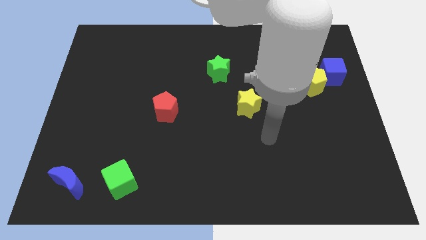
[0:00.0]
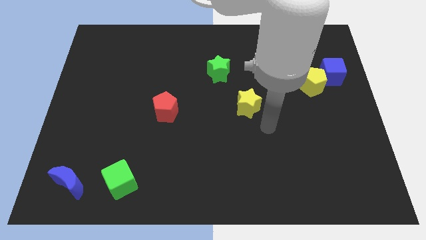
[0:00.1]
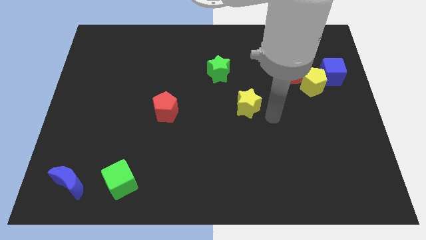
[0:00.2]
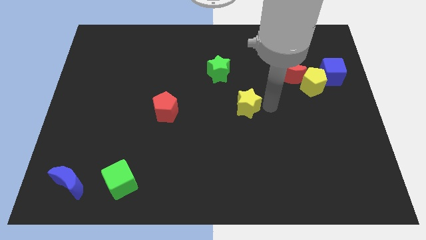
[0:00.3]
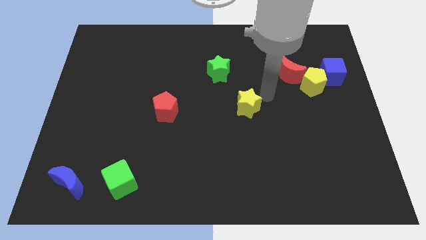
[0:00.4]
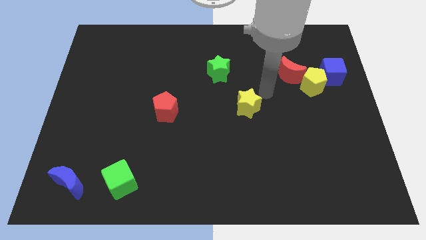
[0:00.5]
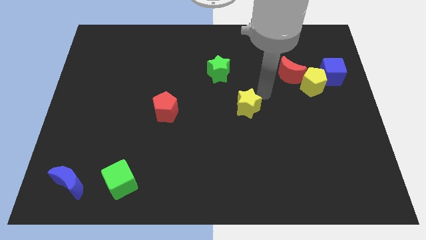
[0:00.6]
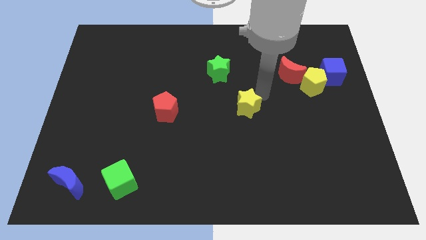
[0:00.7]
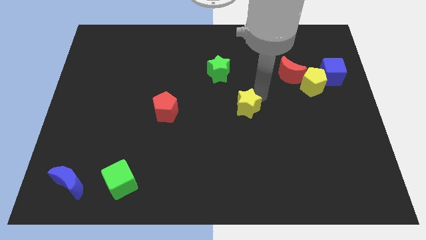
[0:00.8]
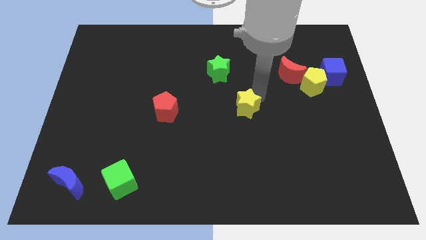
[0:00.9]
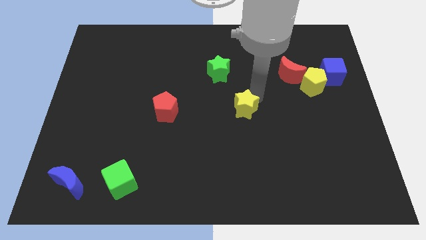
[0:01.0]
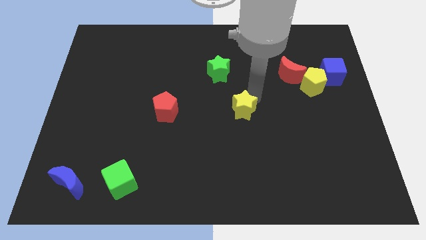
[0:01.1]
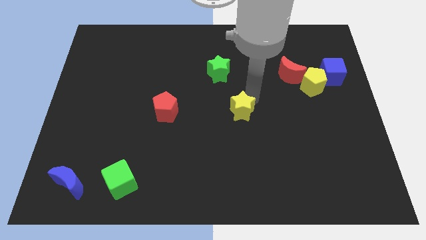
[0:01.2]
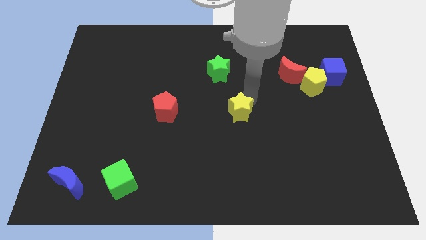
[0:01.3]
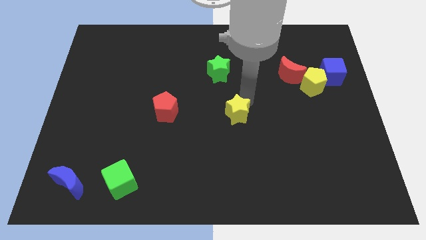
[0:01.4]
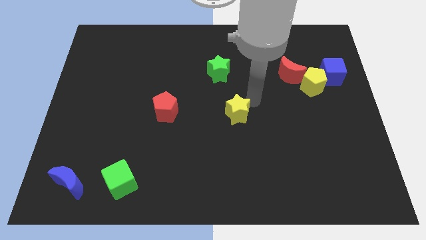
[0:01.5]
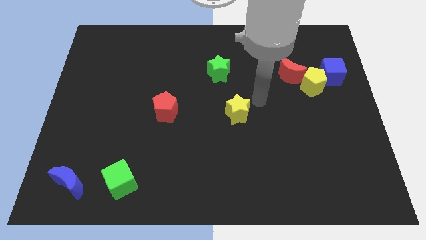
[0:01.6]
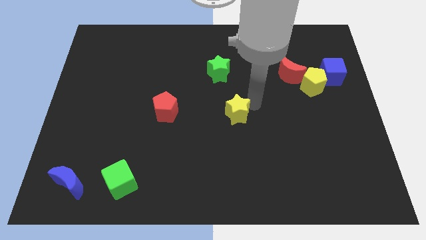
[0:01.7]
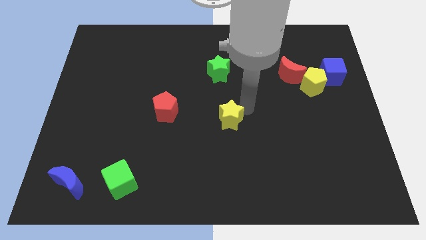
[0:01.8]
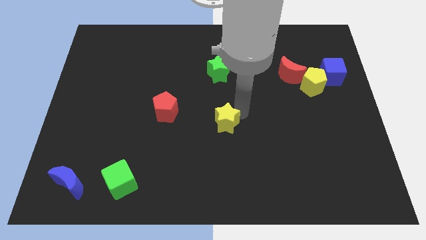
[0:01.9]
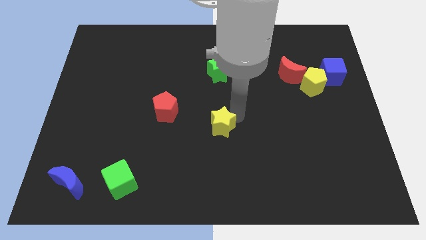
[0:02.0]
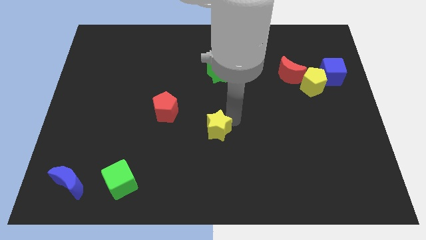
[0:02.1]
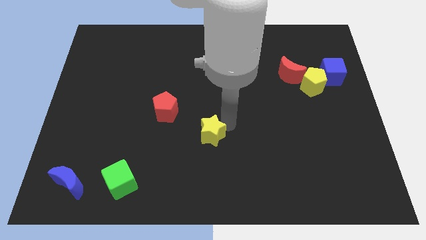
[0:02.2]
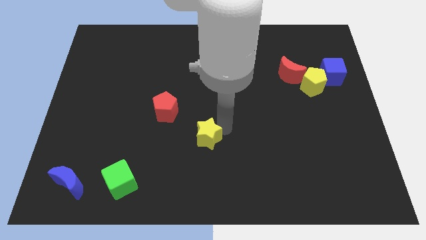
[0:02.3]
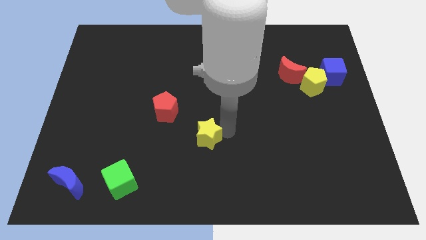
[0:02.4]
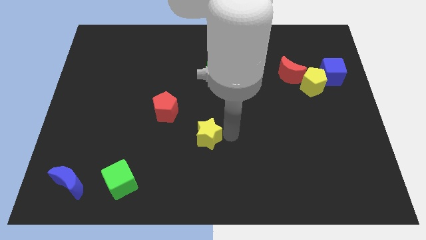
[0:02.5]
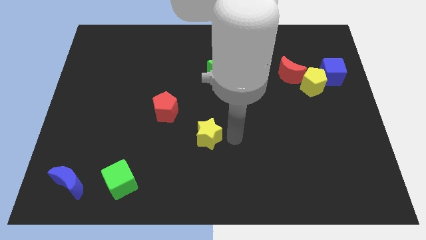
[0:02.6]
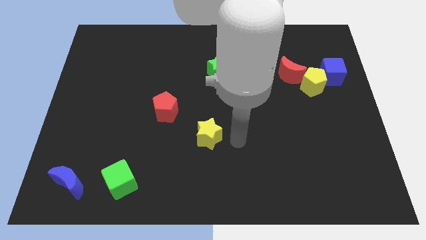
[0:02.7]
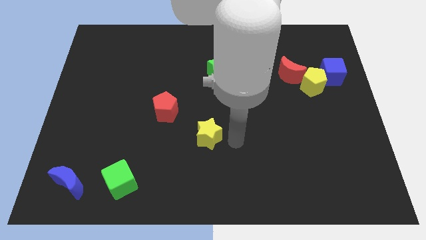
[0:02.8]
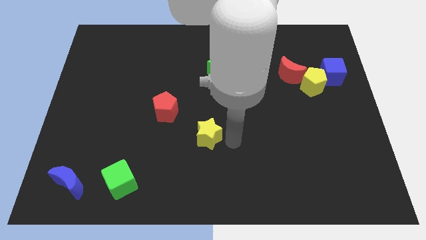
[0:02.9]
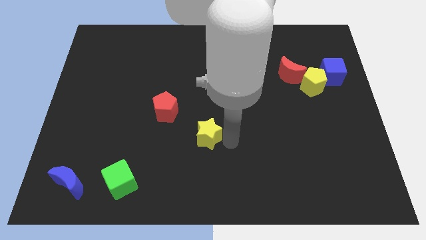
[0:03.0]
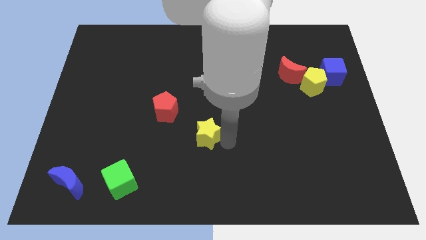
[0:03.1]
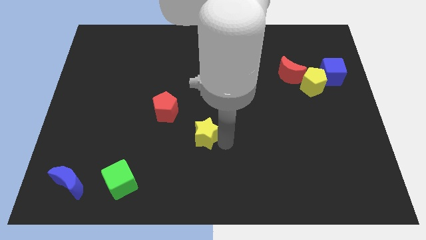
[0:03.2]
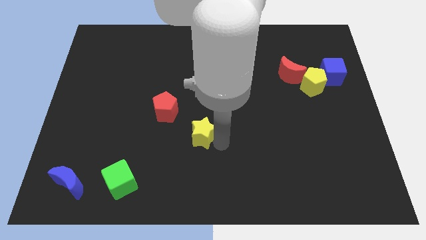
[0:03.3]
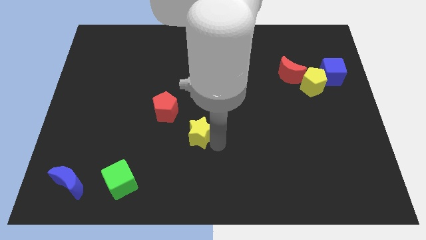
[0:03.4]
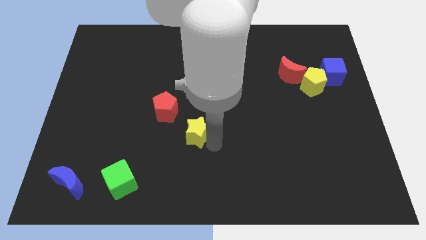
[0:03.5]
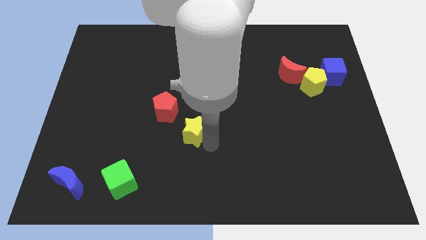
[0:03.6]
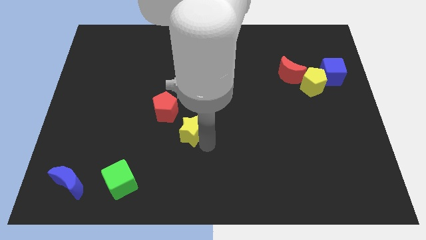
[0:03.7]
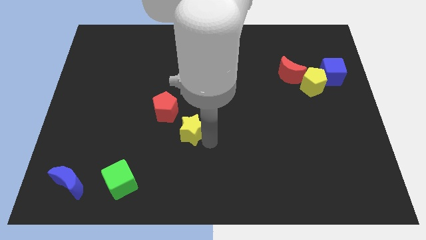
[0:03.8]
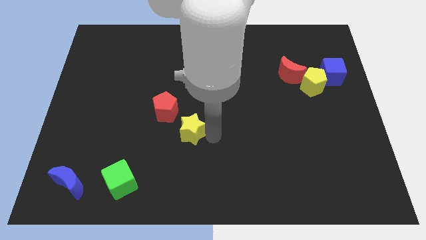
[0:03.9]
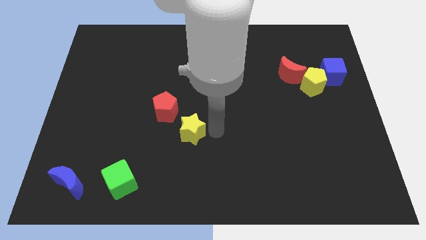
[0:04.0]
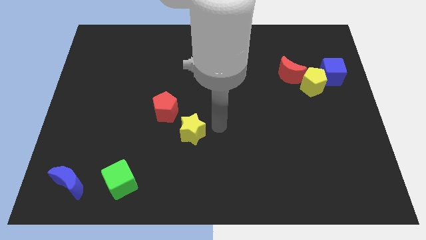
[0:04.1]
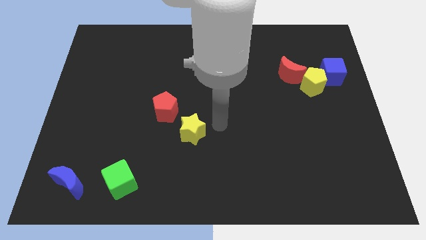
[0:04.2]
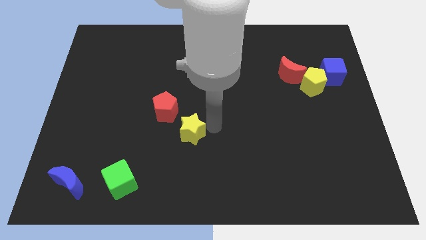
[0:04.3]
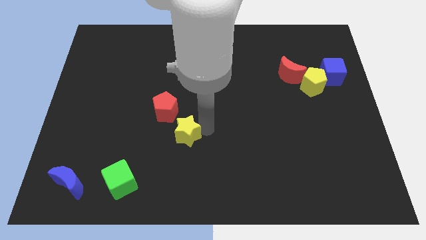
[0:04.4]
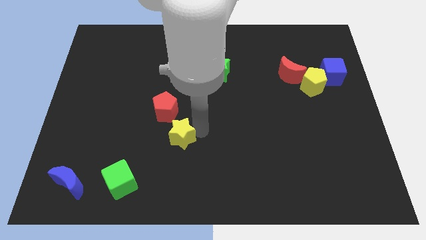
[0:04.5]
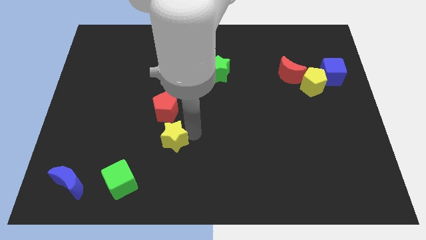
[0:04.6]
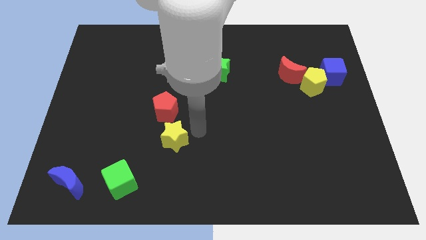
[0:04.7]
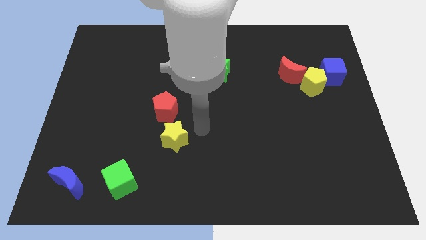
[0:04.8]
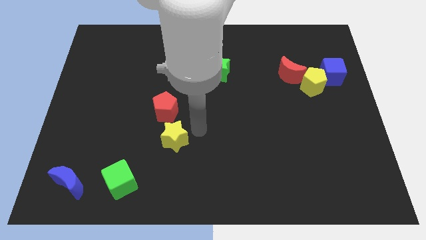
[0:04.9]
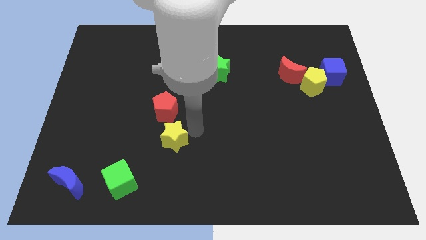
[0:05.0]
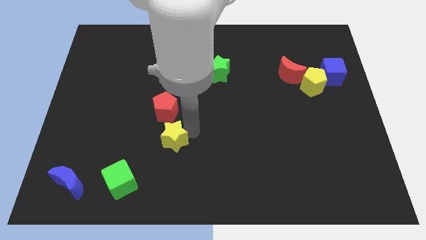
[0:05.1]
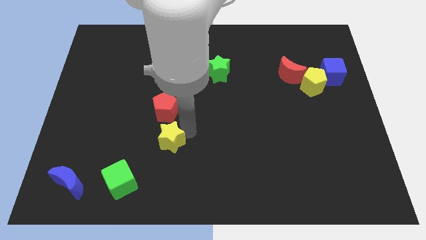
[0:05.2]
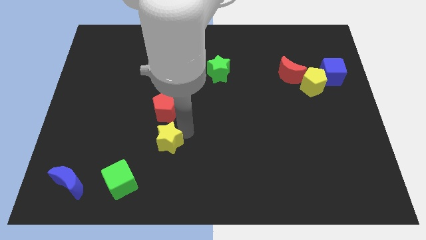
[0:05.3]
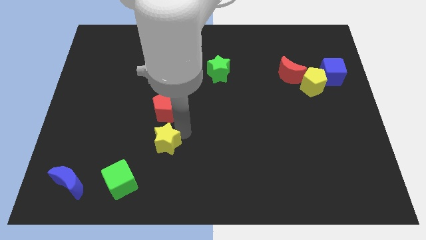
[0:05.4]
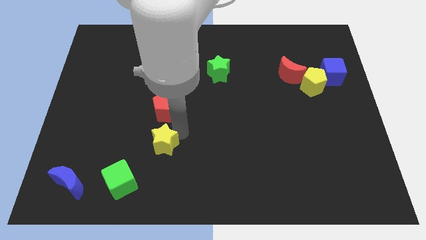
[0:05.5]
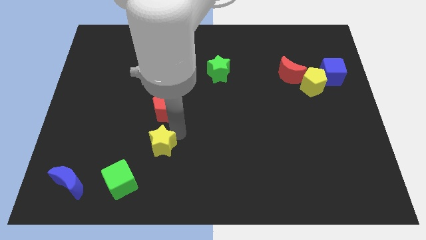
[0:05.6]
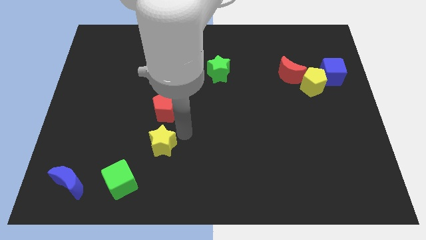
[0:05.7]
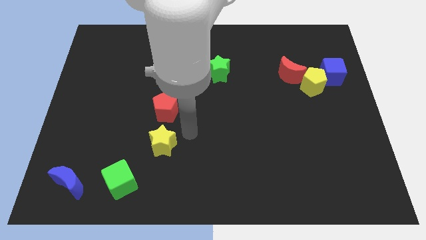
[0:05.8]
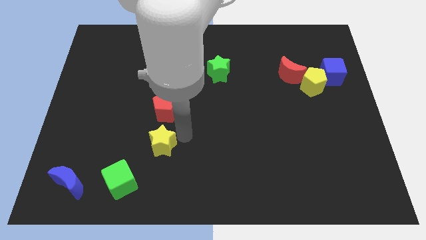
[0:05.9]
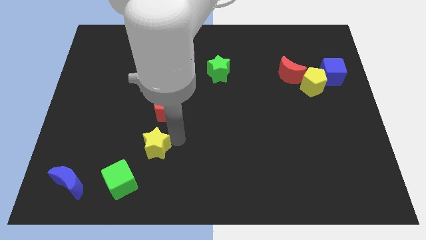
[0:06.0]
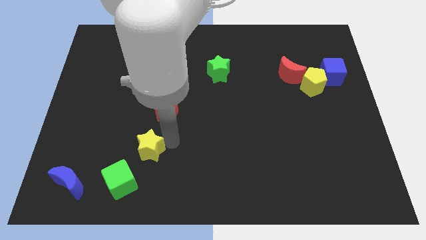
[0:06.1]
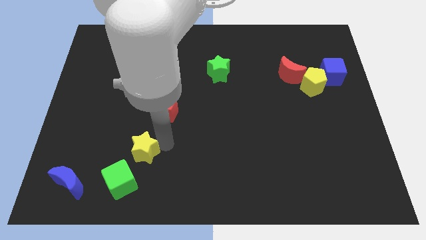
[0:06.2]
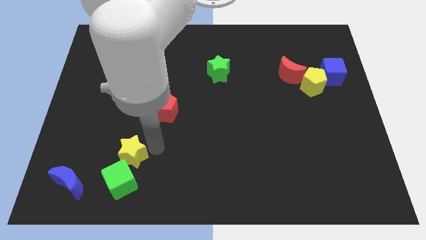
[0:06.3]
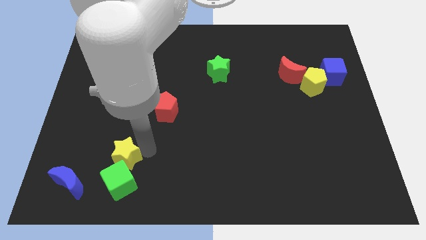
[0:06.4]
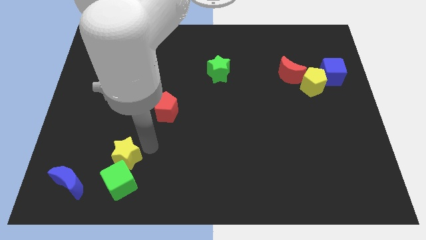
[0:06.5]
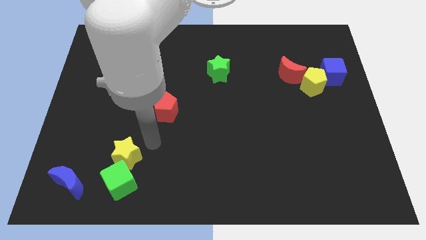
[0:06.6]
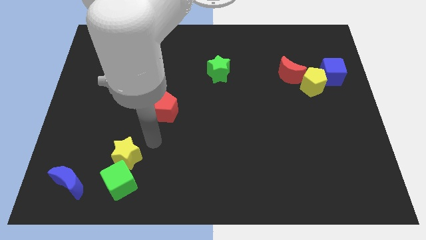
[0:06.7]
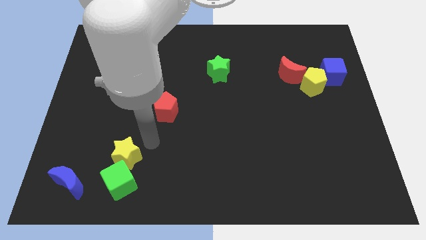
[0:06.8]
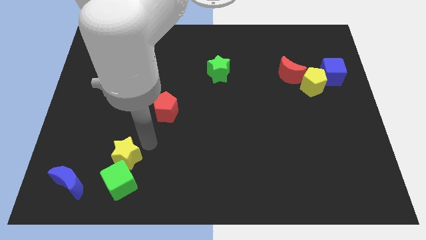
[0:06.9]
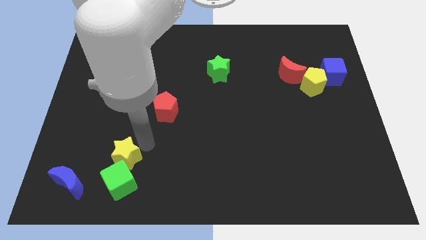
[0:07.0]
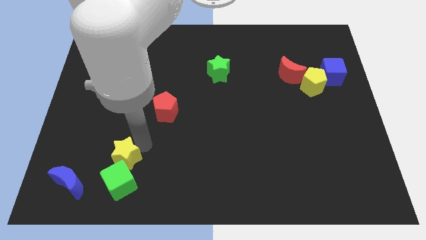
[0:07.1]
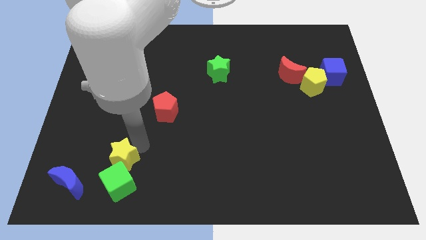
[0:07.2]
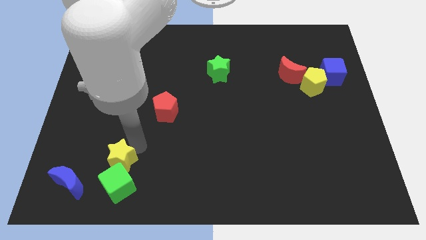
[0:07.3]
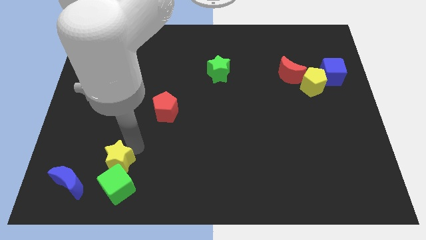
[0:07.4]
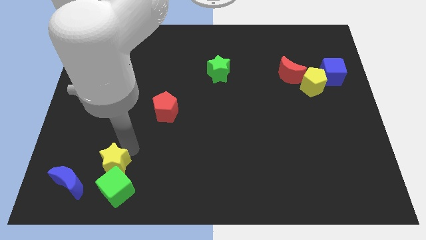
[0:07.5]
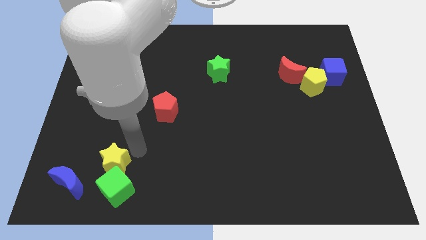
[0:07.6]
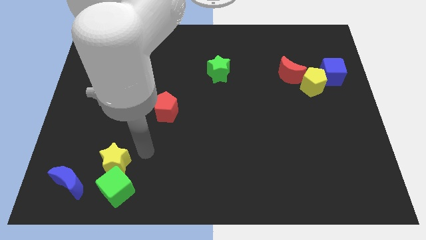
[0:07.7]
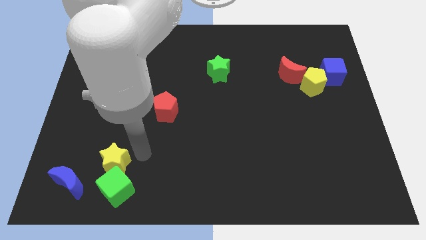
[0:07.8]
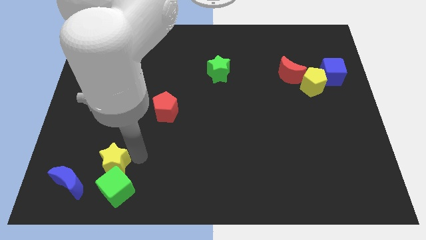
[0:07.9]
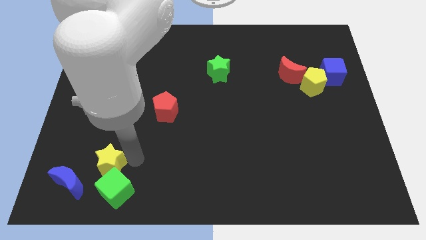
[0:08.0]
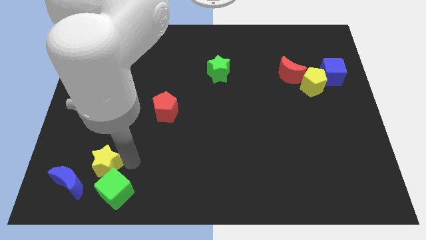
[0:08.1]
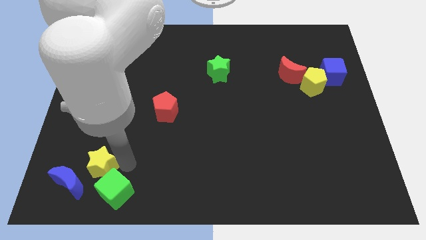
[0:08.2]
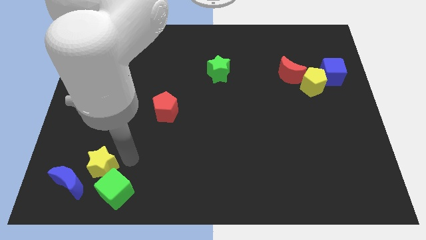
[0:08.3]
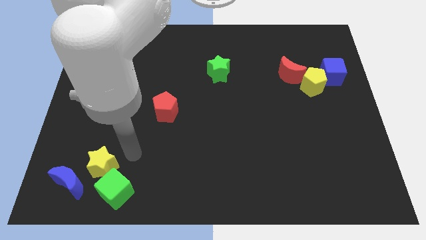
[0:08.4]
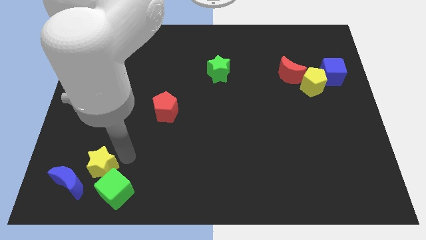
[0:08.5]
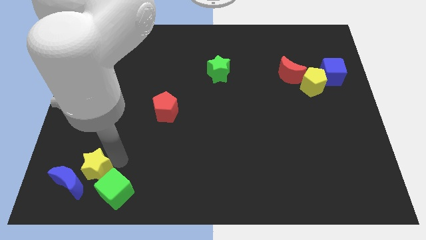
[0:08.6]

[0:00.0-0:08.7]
push the yellow star towards the blue moon
